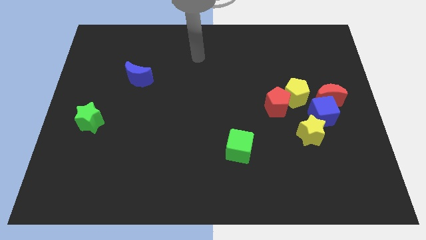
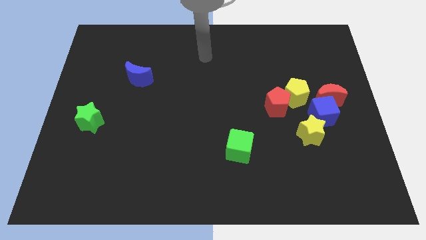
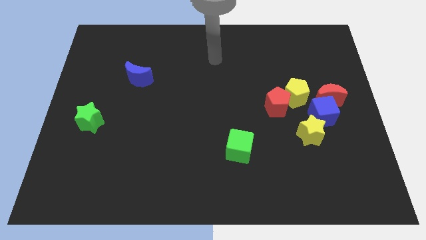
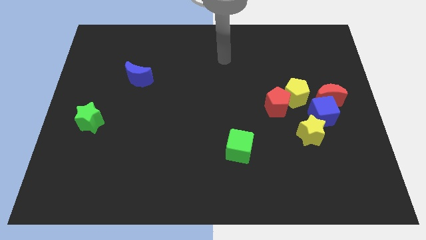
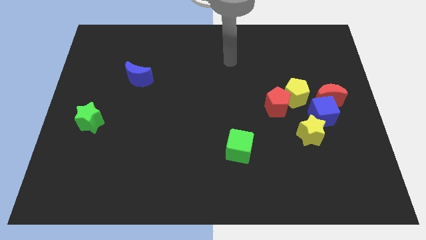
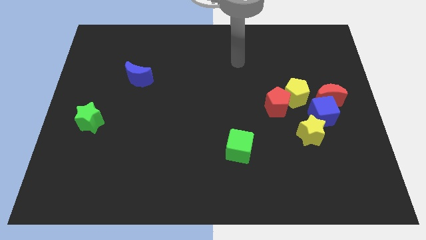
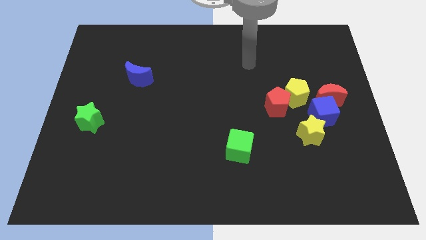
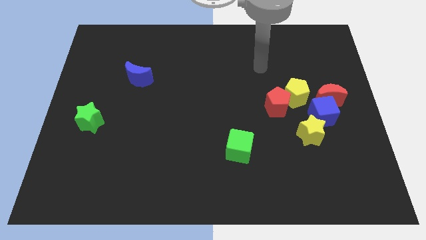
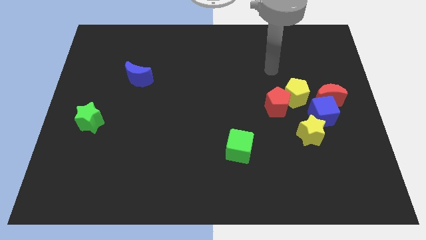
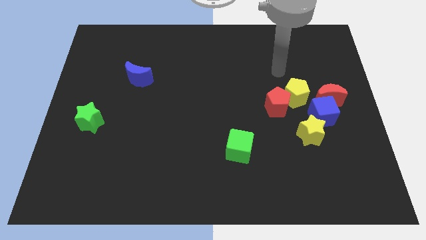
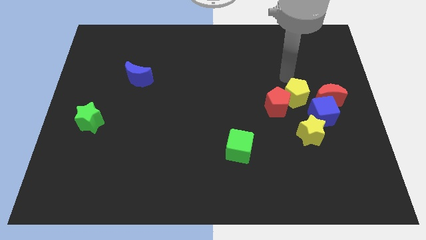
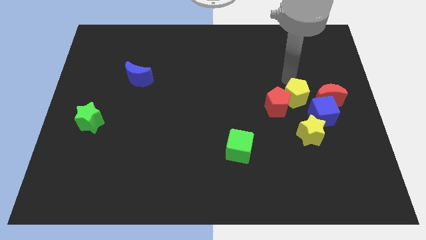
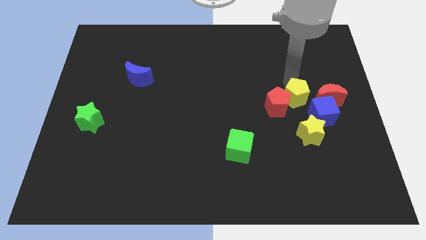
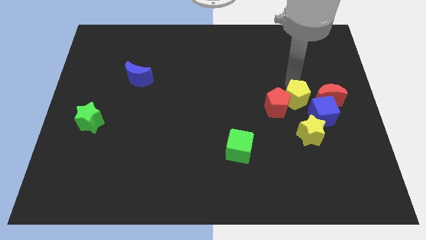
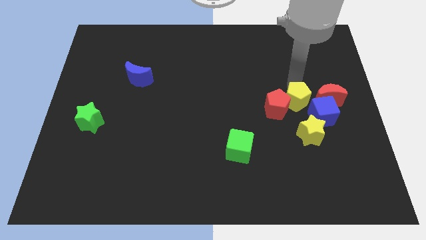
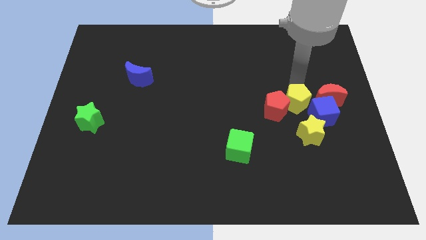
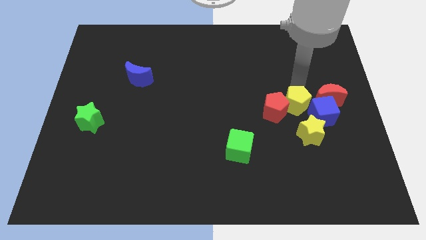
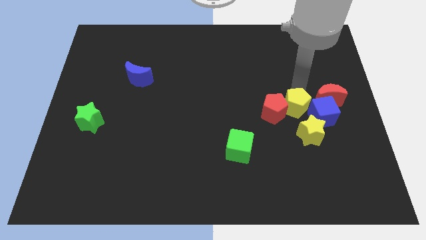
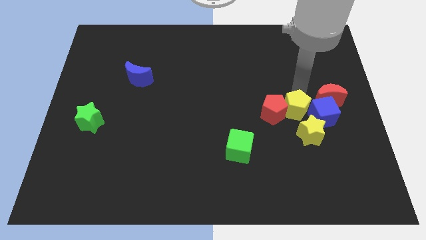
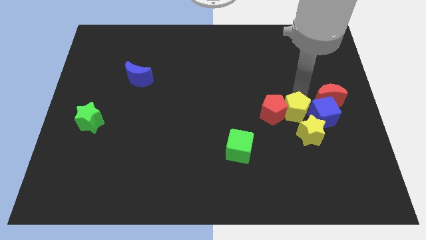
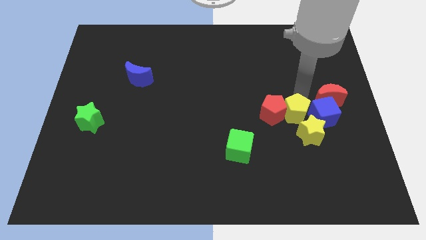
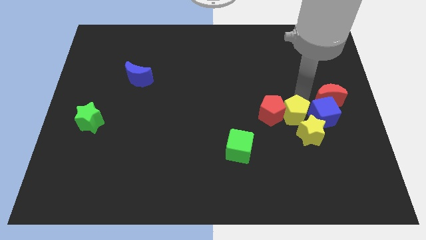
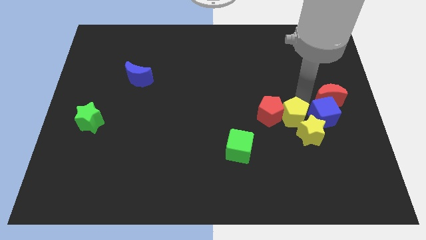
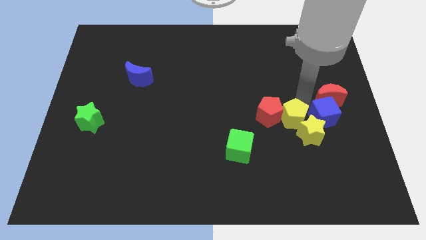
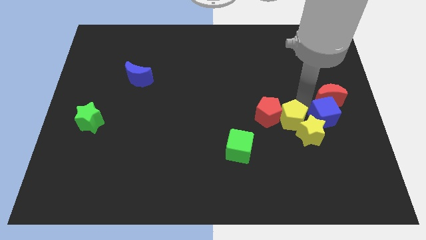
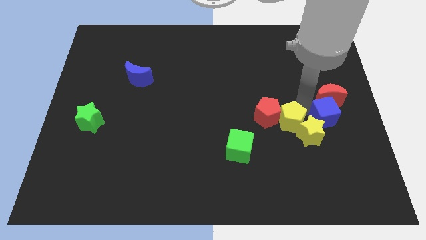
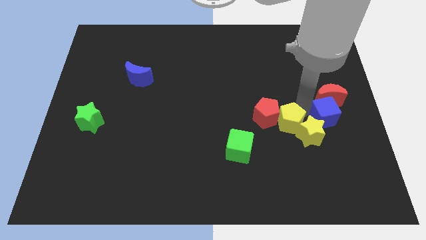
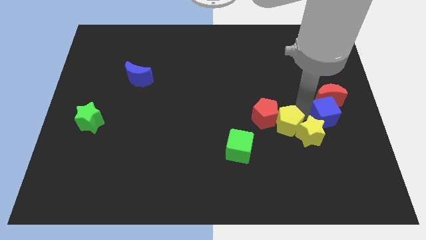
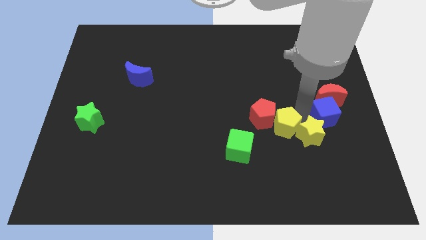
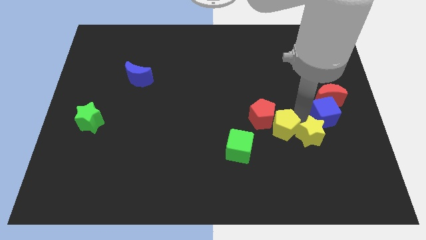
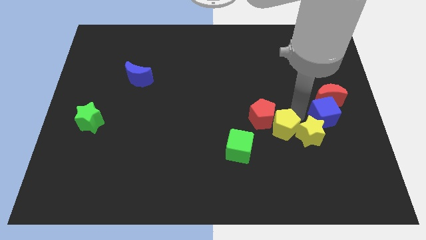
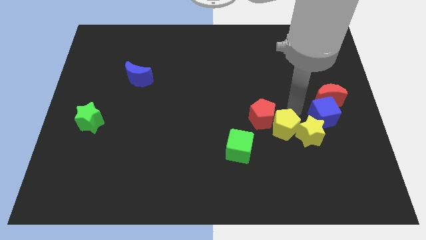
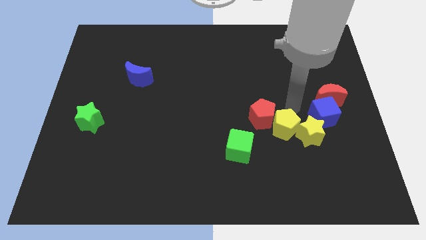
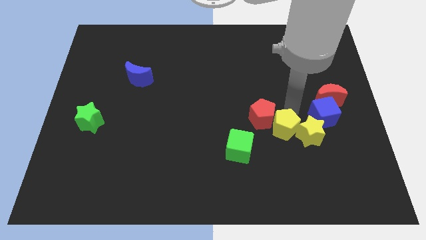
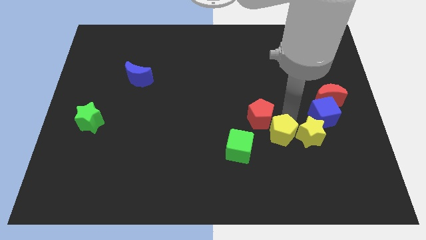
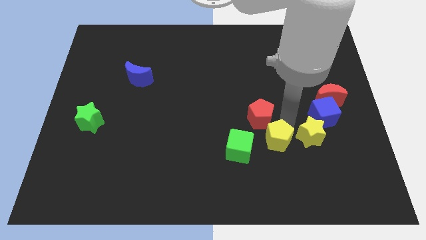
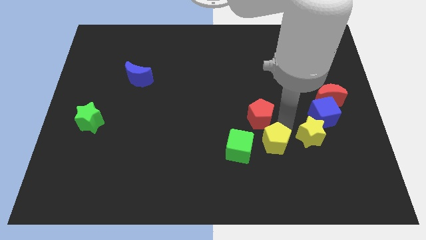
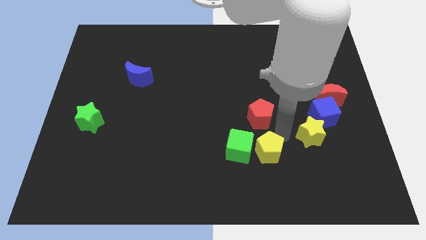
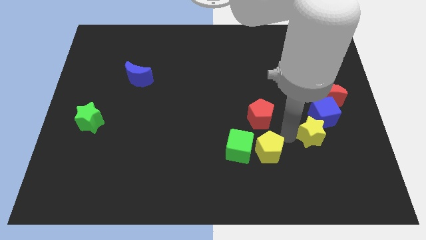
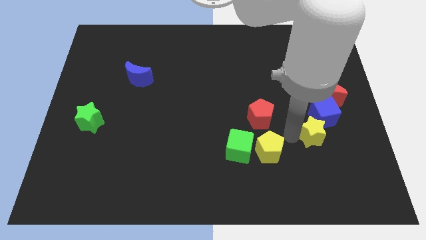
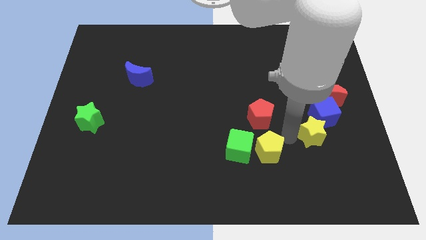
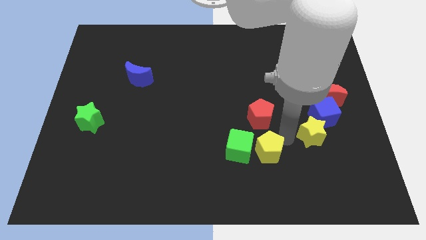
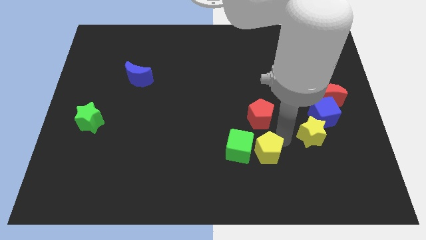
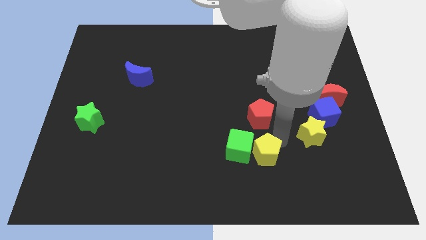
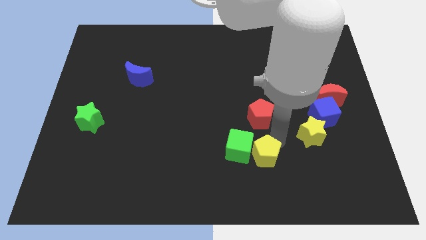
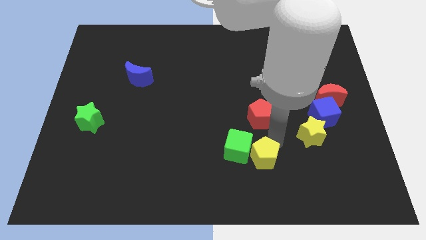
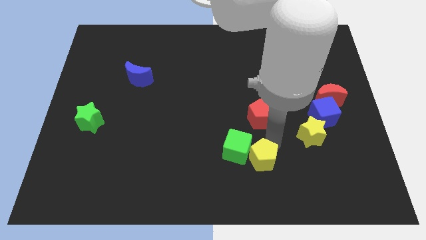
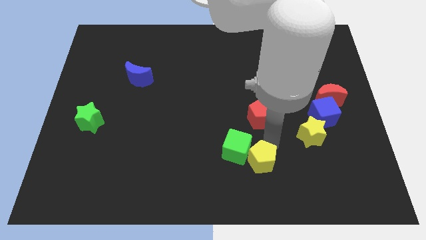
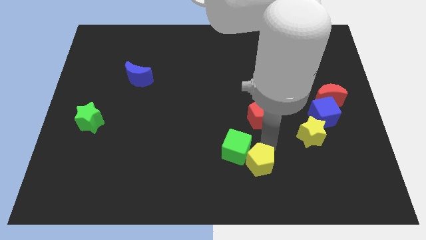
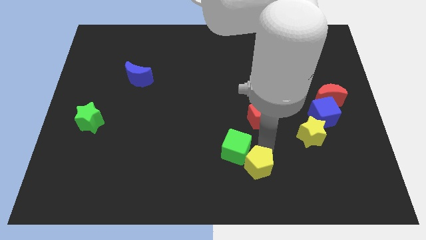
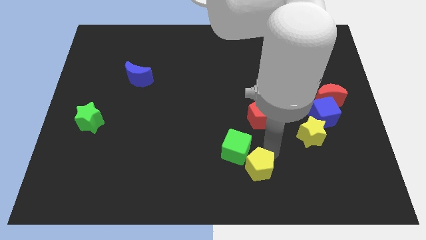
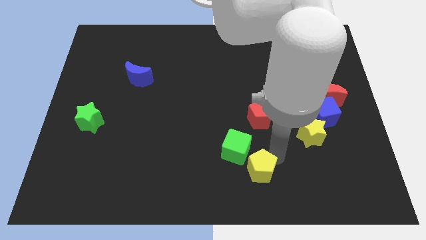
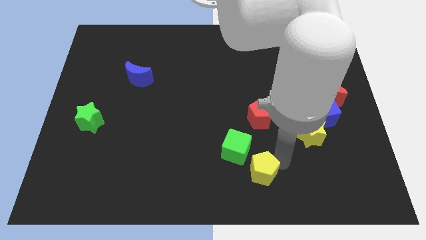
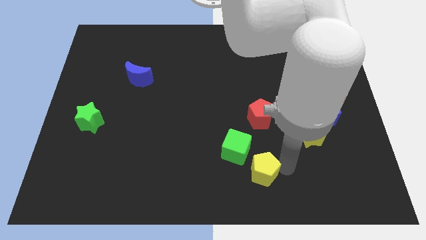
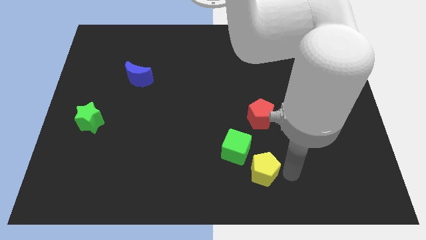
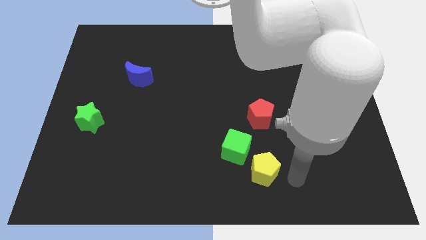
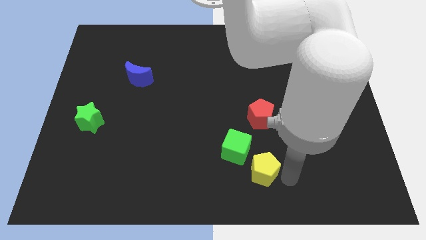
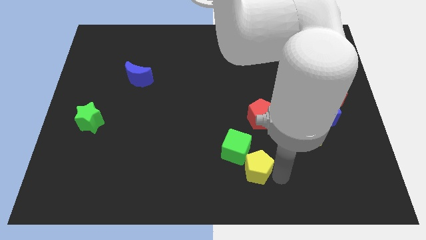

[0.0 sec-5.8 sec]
move the yellow pentagon down and left diagonally

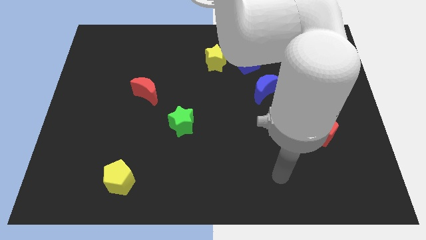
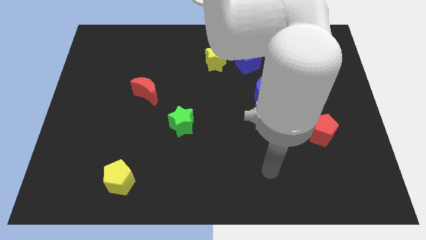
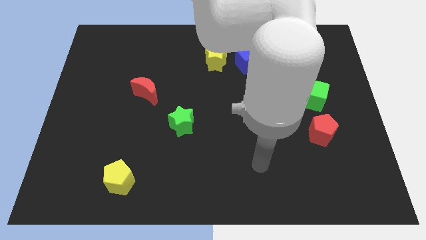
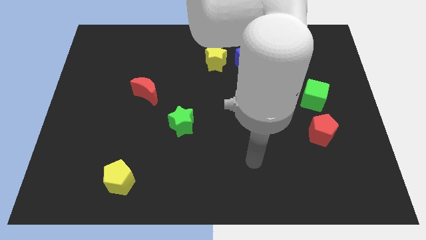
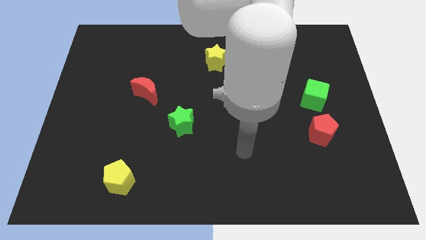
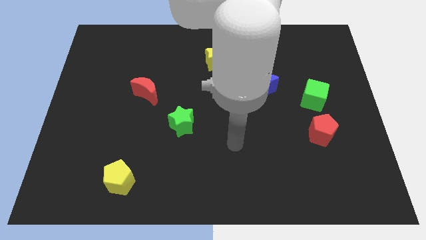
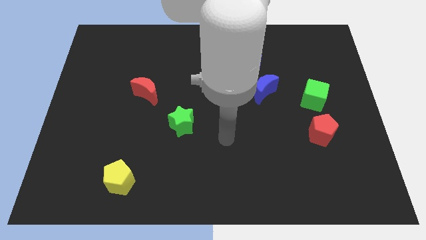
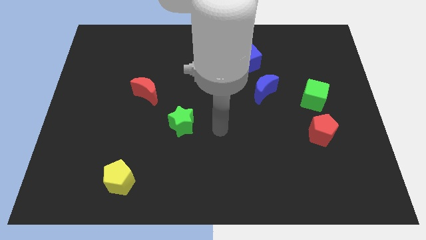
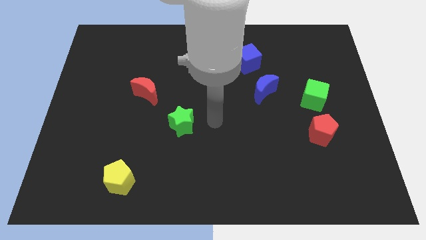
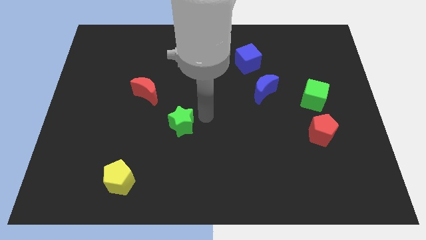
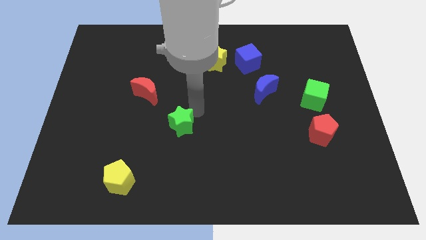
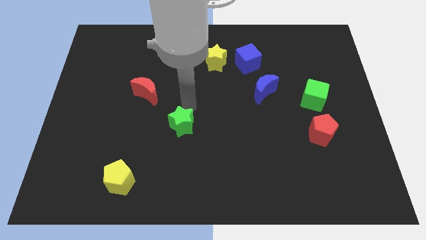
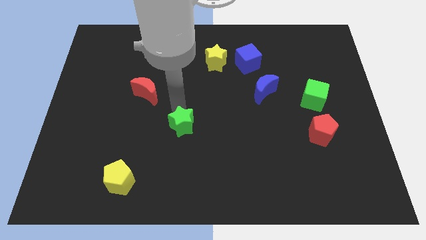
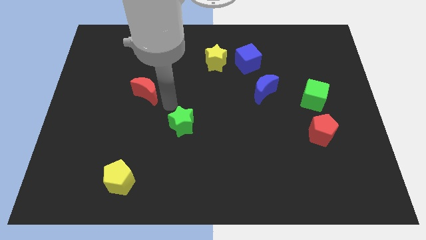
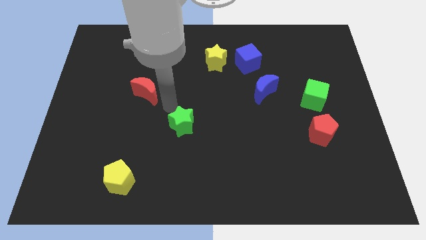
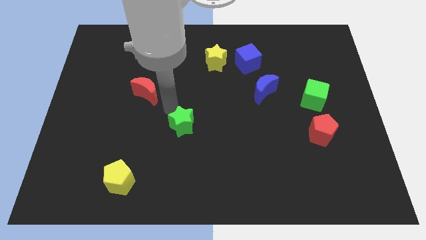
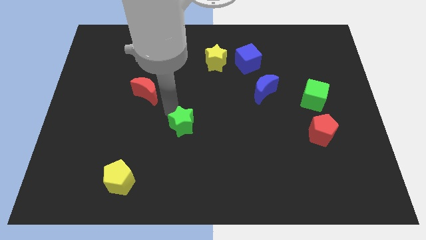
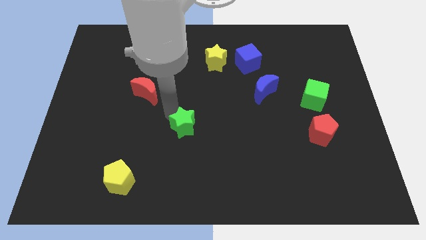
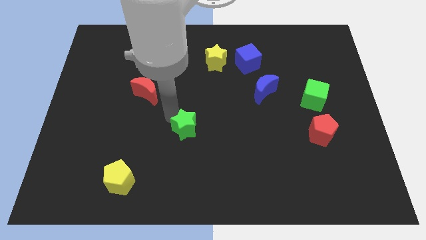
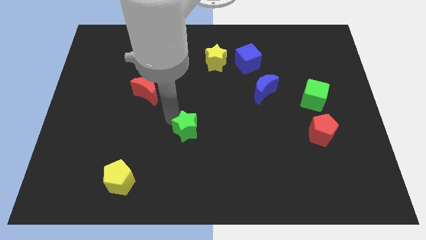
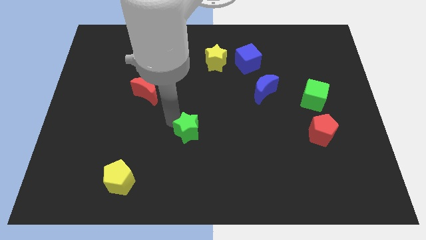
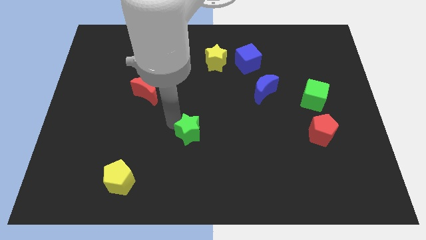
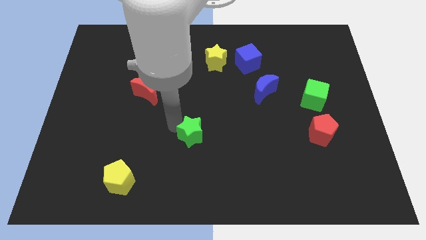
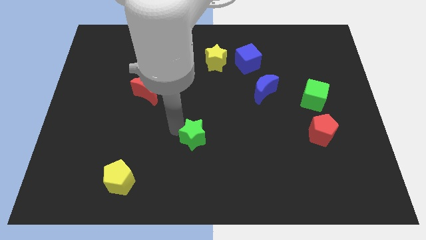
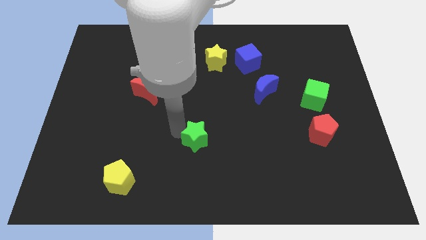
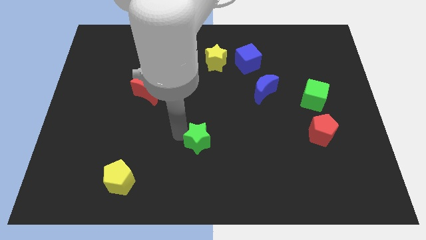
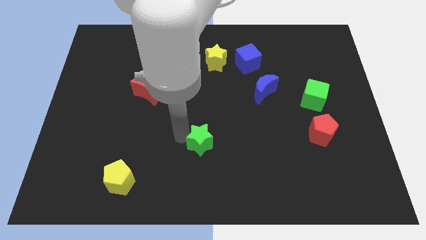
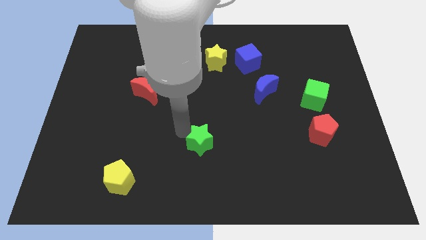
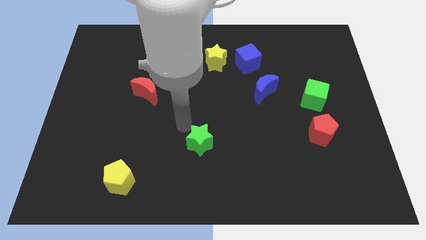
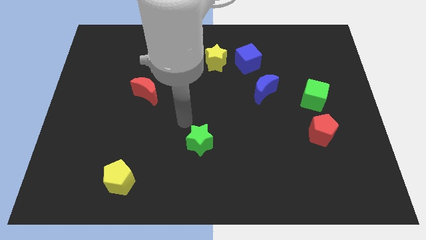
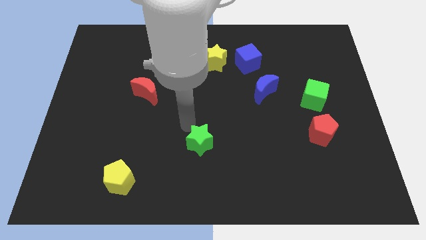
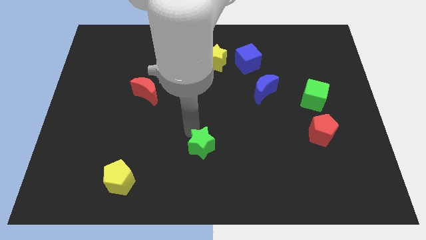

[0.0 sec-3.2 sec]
move the green star downwards and then to the right a bit
